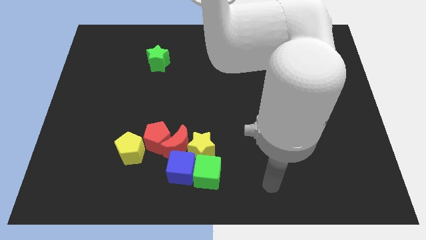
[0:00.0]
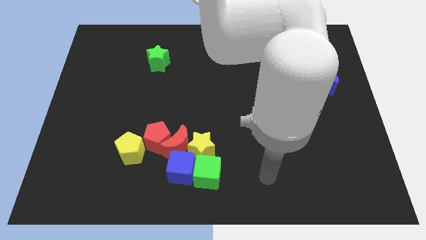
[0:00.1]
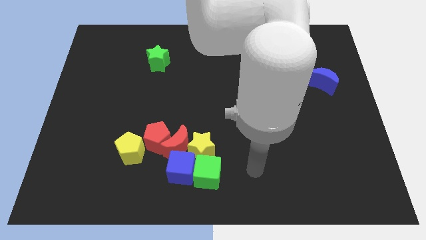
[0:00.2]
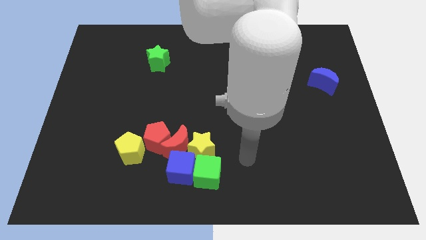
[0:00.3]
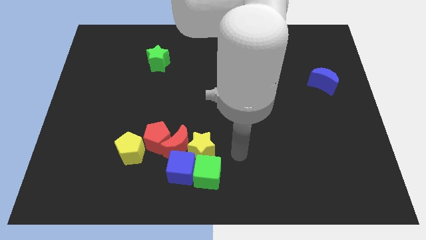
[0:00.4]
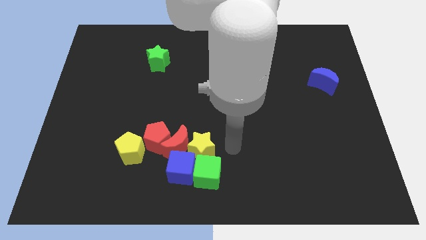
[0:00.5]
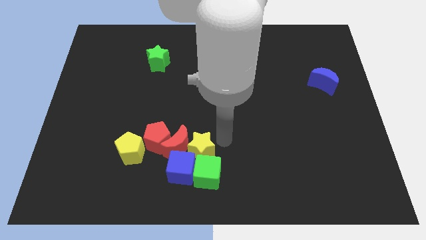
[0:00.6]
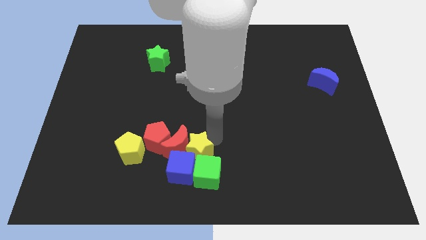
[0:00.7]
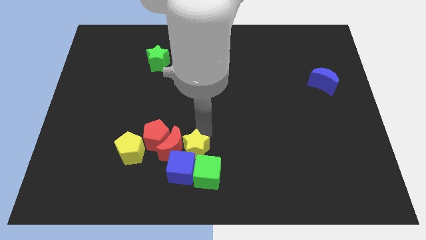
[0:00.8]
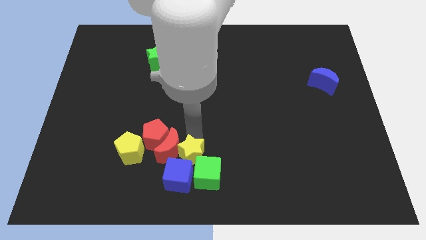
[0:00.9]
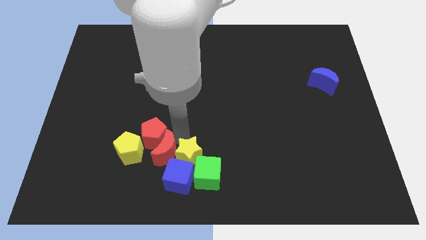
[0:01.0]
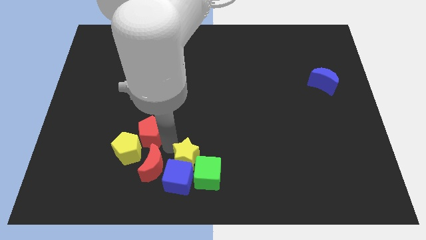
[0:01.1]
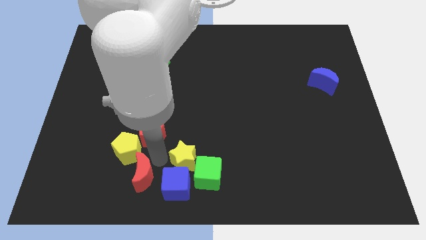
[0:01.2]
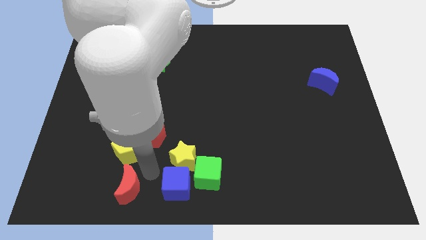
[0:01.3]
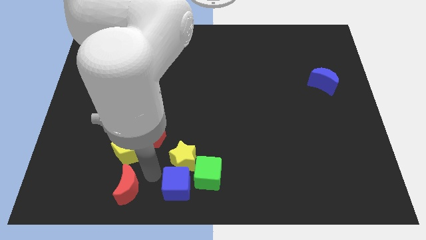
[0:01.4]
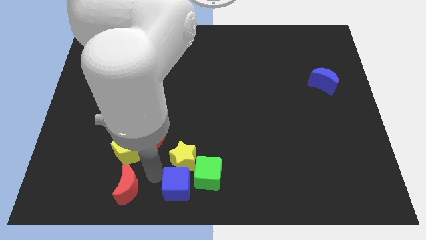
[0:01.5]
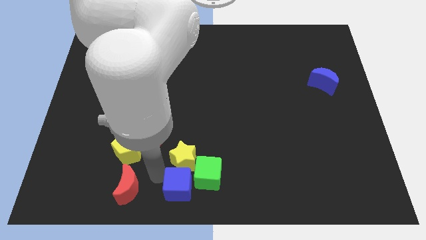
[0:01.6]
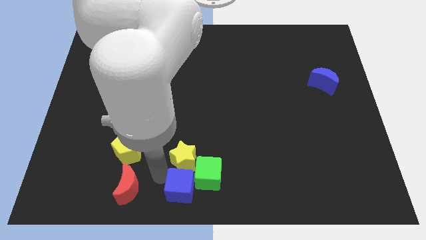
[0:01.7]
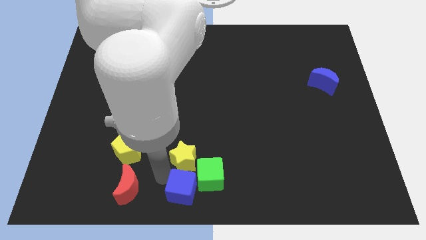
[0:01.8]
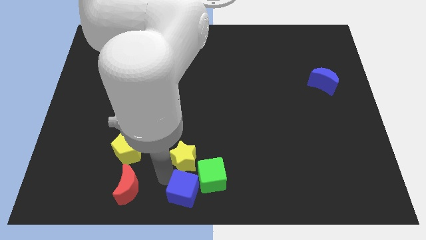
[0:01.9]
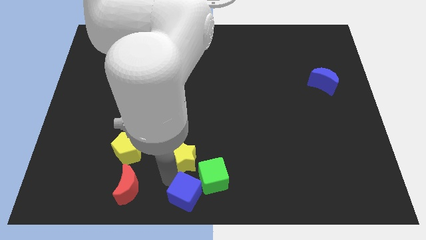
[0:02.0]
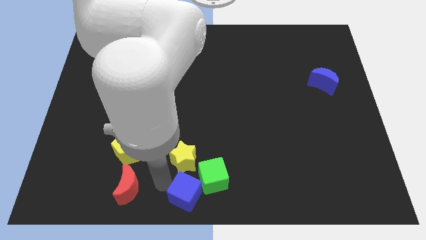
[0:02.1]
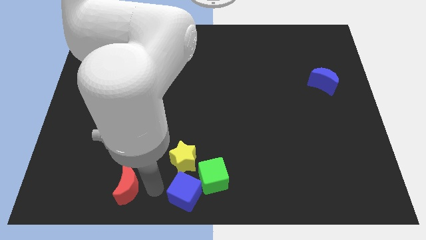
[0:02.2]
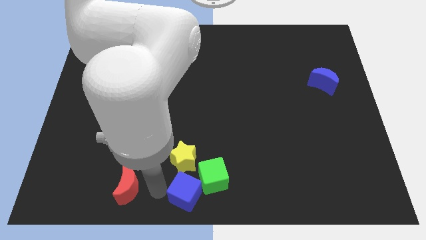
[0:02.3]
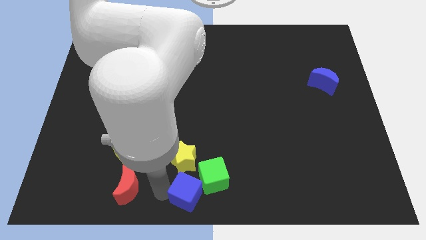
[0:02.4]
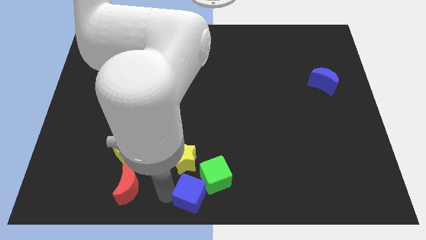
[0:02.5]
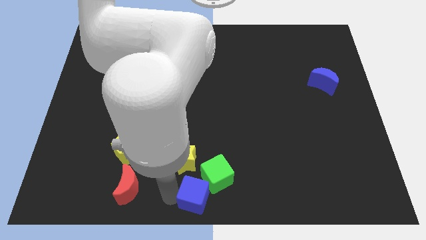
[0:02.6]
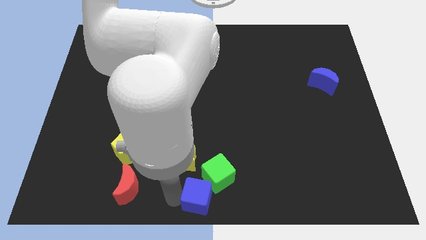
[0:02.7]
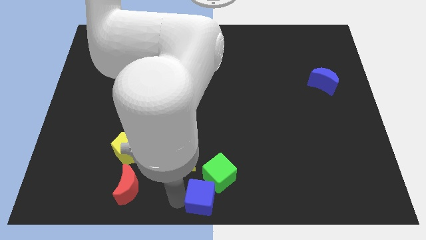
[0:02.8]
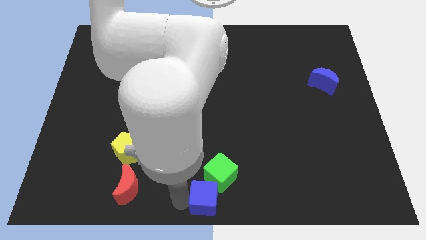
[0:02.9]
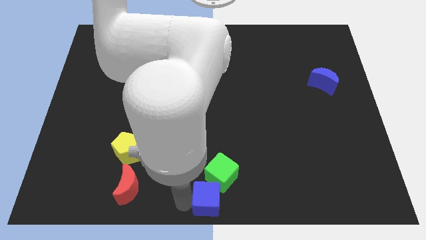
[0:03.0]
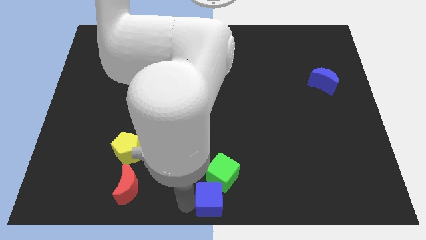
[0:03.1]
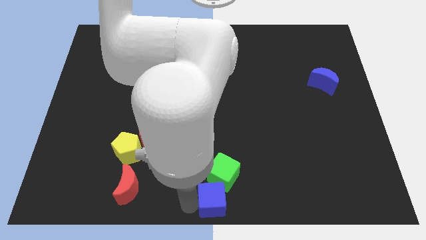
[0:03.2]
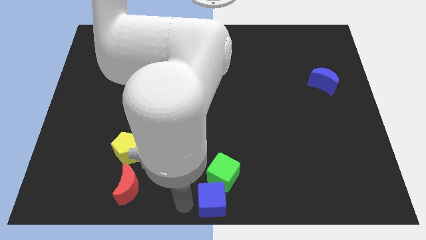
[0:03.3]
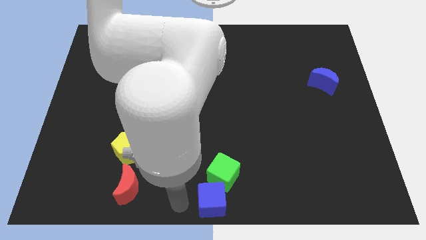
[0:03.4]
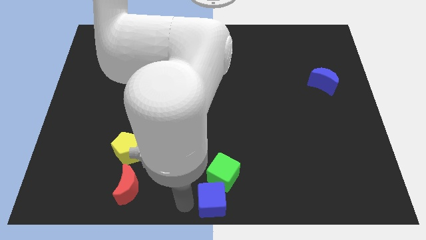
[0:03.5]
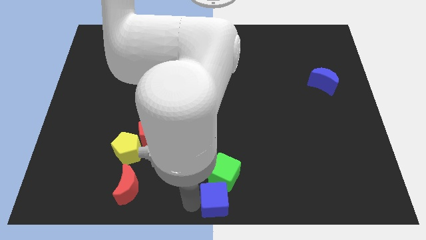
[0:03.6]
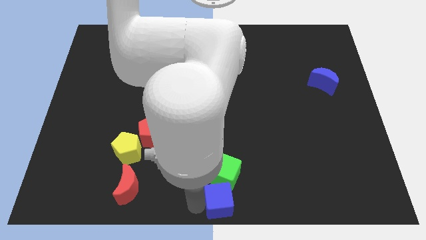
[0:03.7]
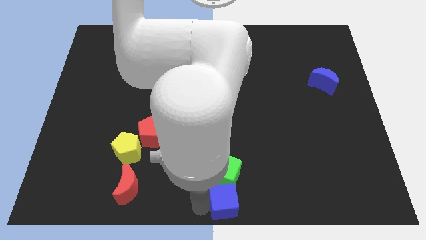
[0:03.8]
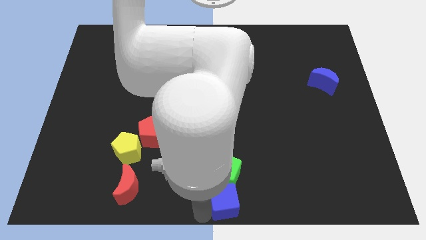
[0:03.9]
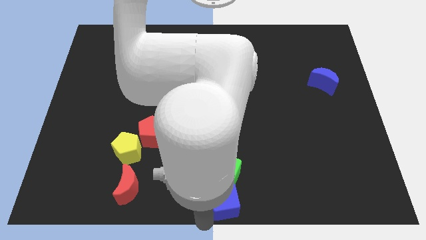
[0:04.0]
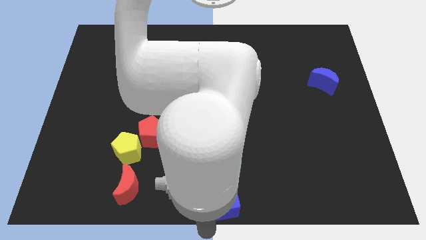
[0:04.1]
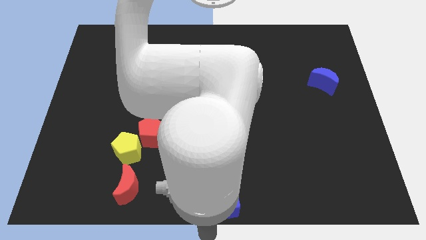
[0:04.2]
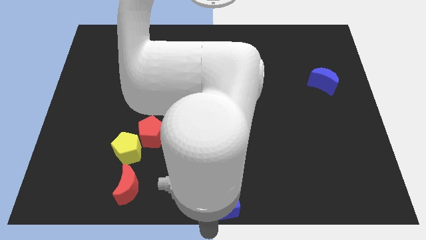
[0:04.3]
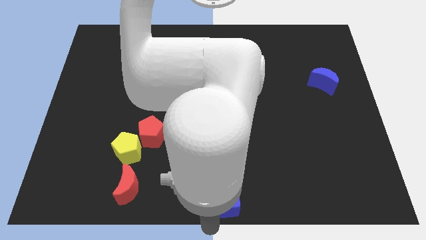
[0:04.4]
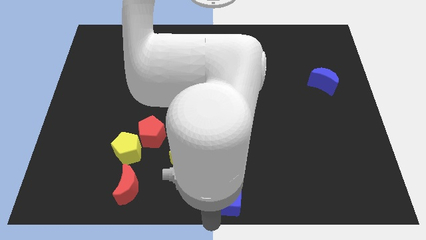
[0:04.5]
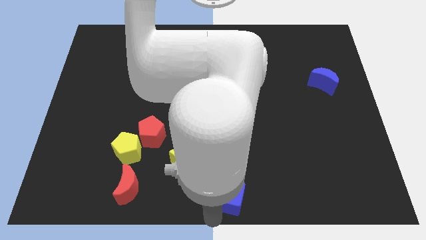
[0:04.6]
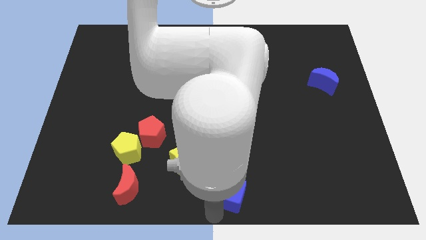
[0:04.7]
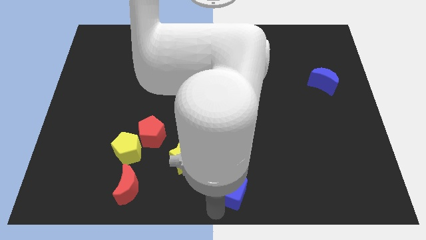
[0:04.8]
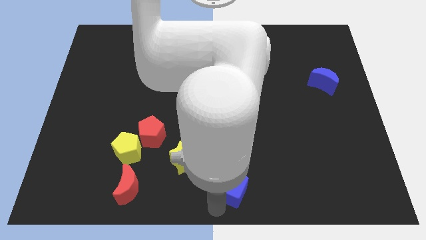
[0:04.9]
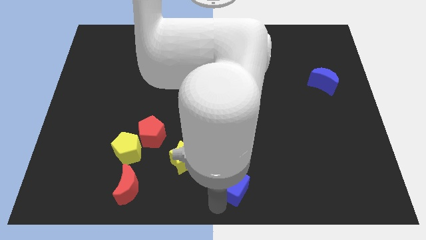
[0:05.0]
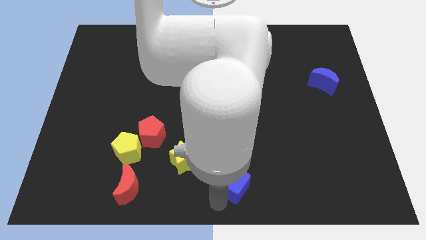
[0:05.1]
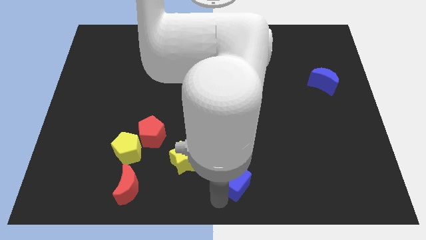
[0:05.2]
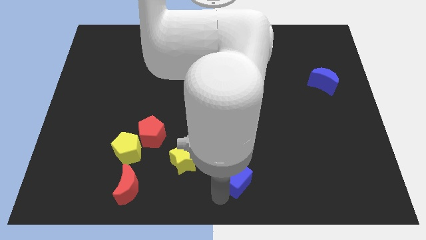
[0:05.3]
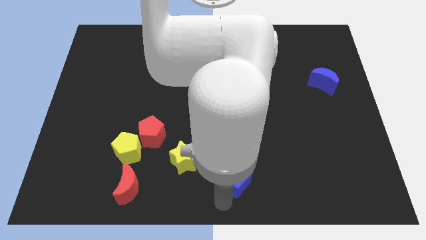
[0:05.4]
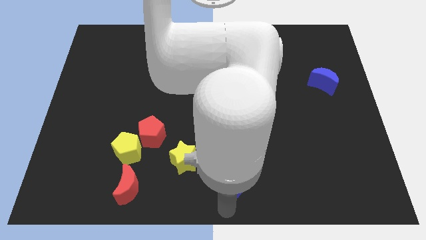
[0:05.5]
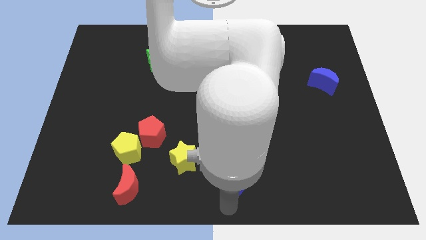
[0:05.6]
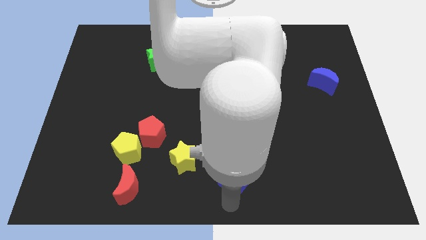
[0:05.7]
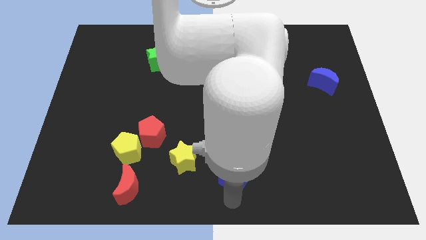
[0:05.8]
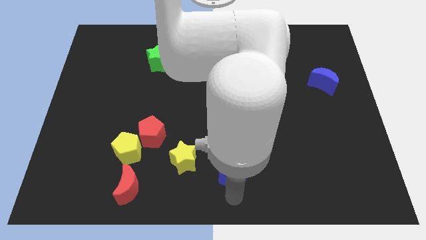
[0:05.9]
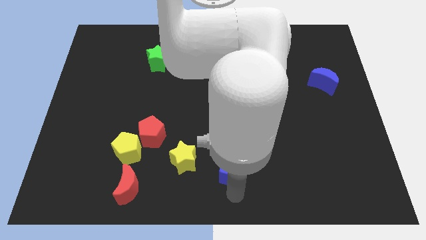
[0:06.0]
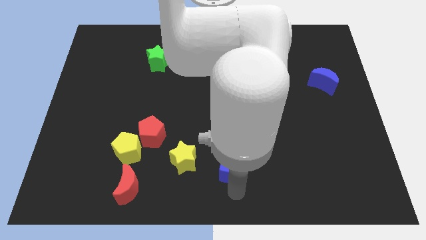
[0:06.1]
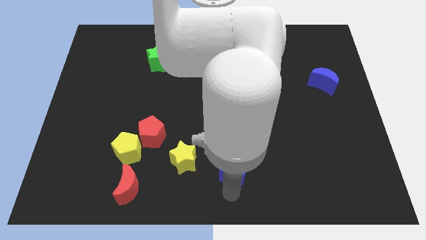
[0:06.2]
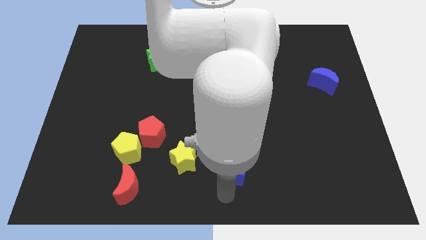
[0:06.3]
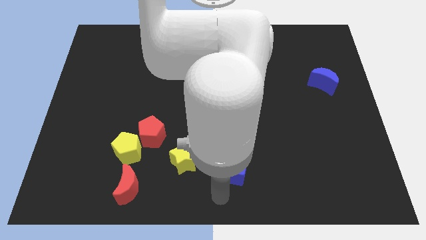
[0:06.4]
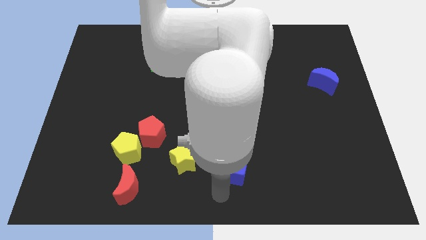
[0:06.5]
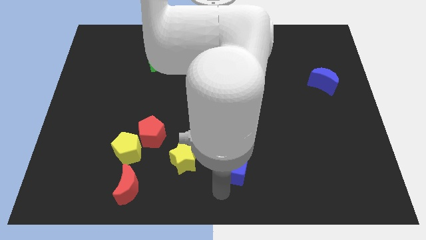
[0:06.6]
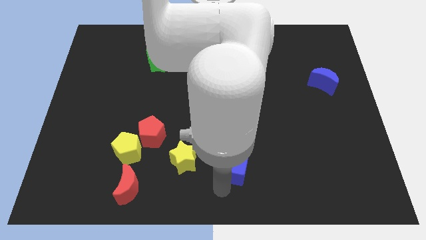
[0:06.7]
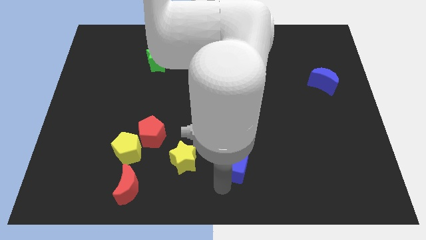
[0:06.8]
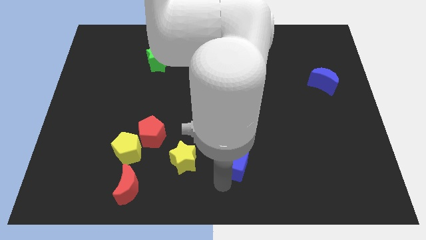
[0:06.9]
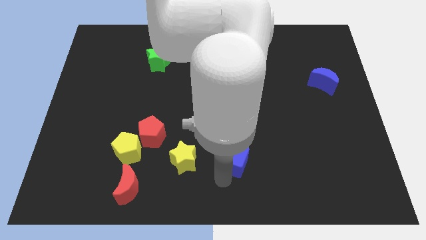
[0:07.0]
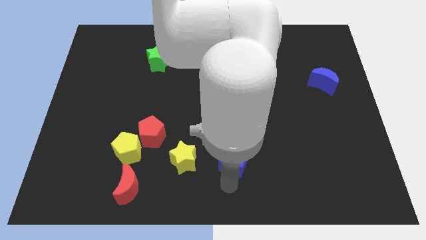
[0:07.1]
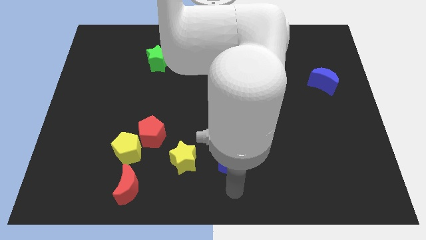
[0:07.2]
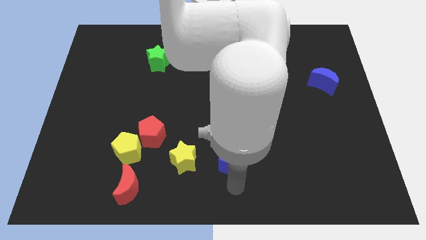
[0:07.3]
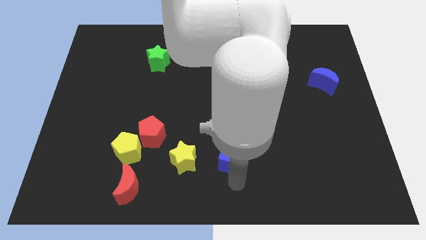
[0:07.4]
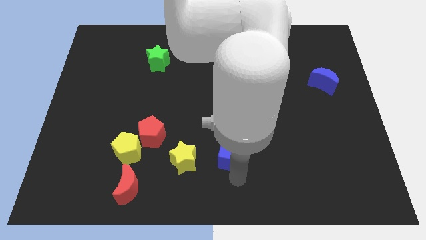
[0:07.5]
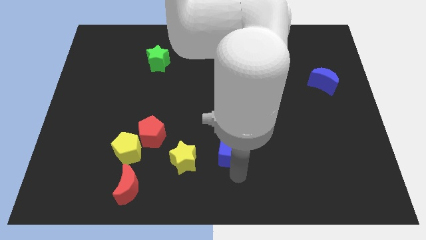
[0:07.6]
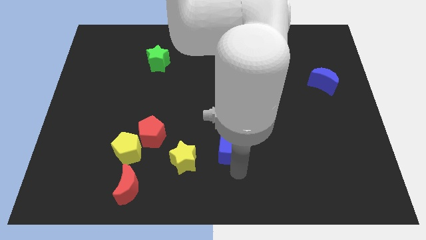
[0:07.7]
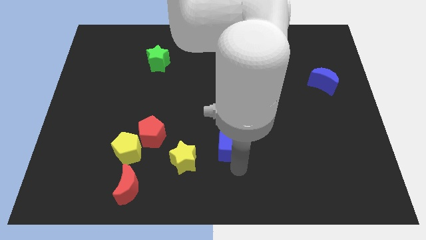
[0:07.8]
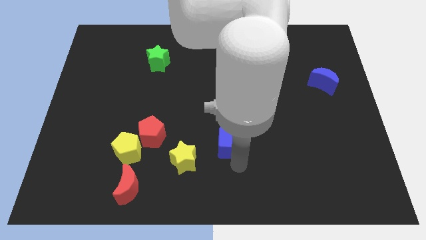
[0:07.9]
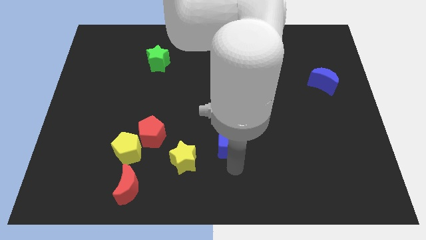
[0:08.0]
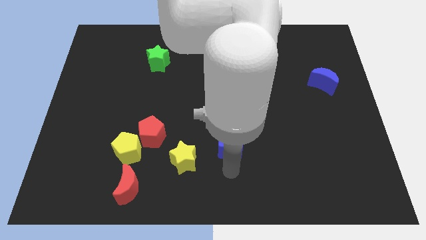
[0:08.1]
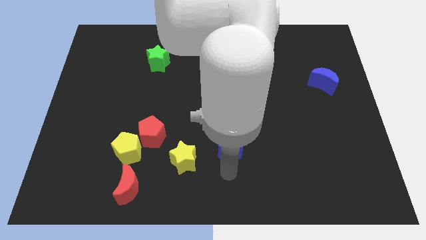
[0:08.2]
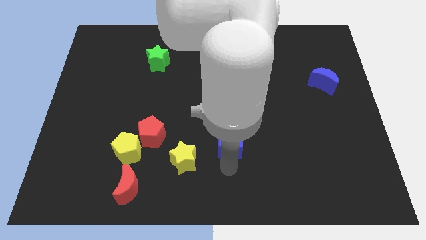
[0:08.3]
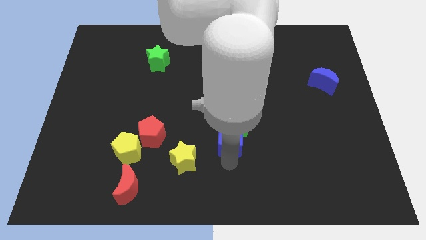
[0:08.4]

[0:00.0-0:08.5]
move the blue cube to the middle
